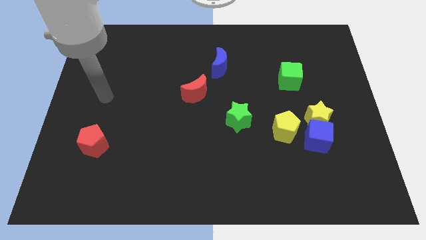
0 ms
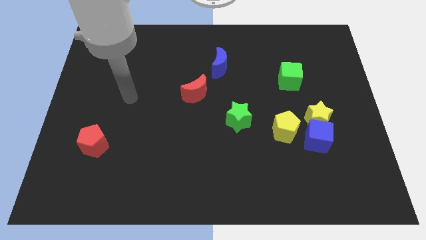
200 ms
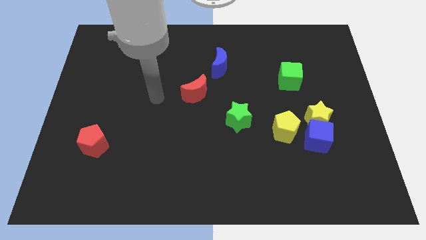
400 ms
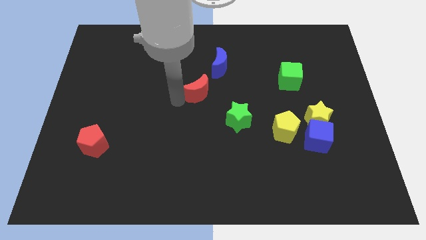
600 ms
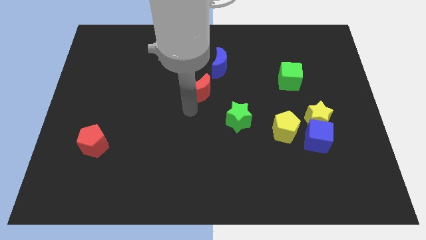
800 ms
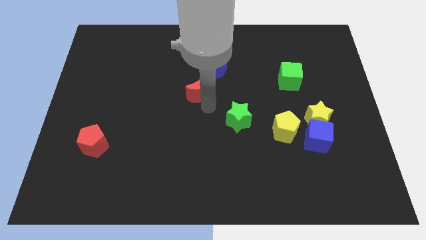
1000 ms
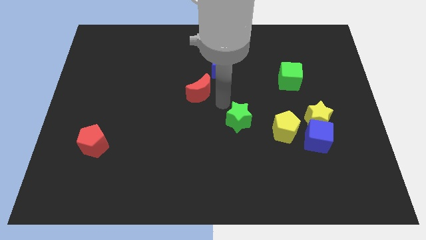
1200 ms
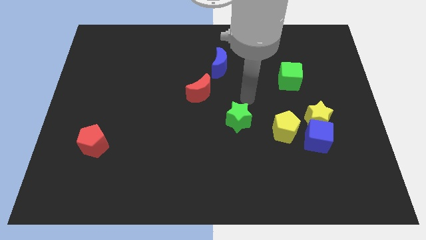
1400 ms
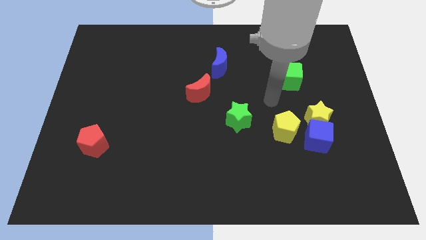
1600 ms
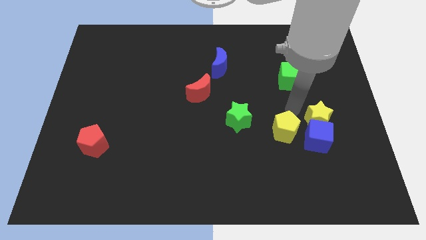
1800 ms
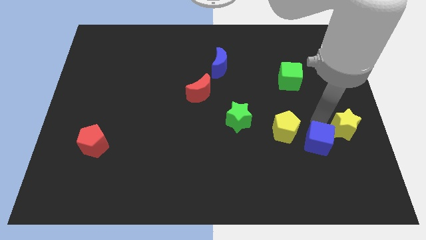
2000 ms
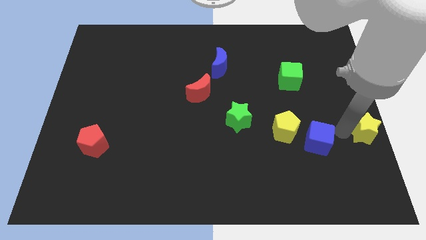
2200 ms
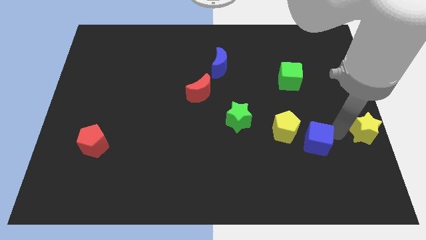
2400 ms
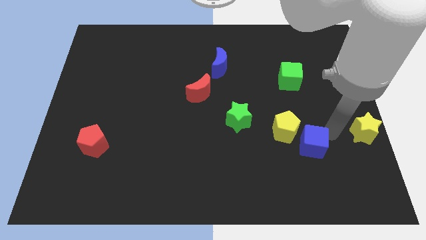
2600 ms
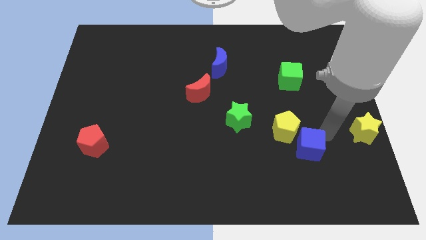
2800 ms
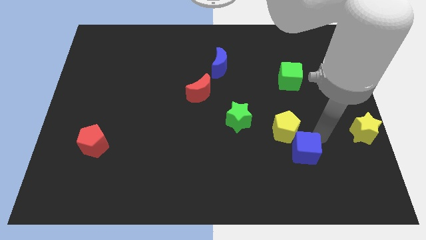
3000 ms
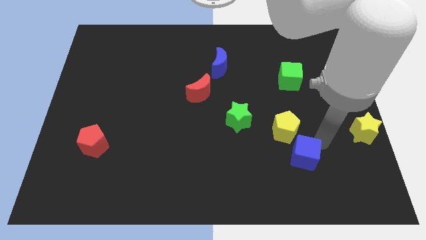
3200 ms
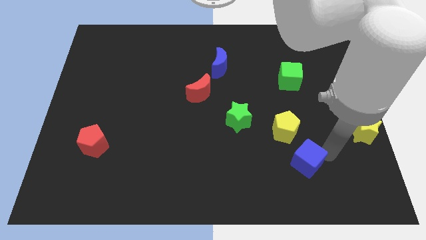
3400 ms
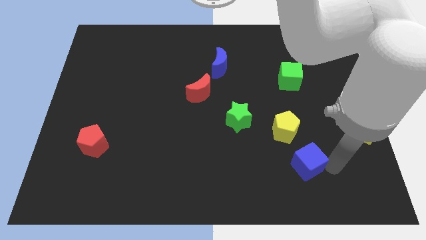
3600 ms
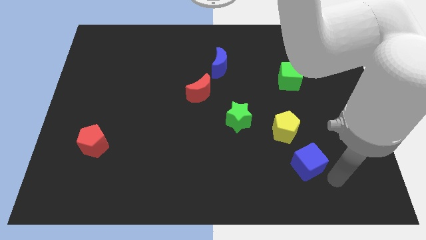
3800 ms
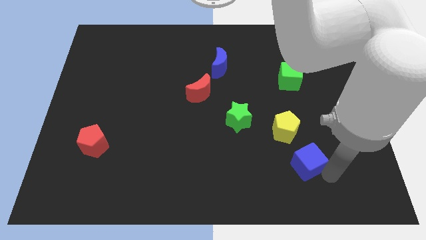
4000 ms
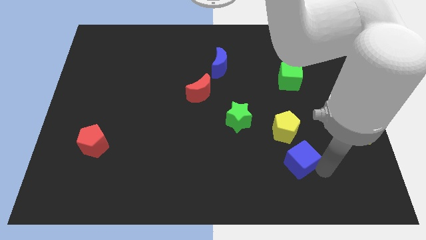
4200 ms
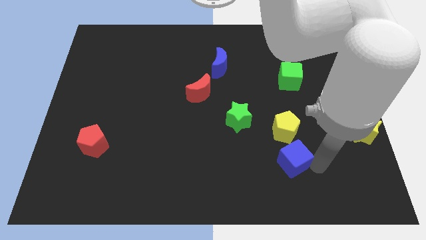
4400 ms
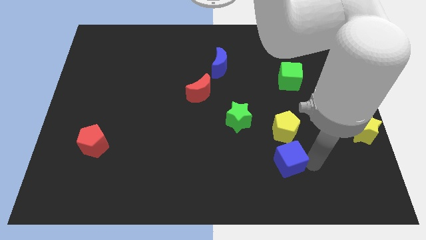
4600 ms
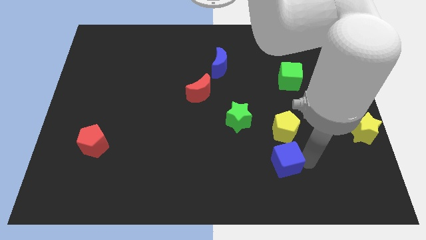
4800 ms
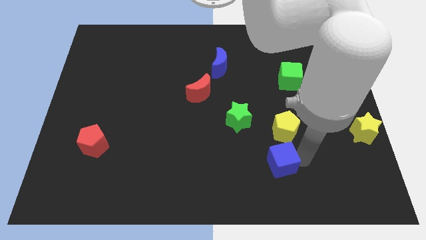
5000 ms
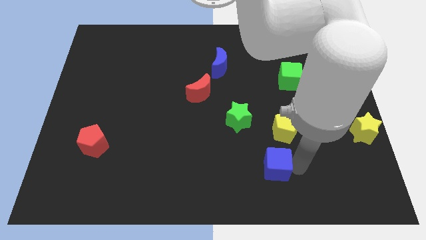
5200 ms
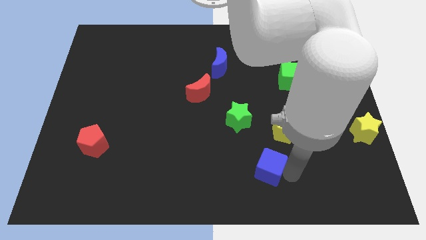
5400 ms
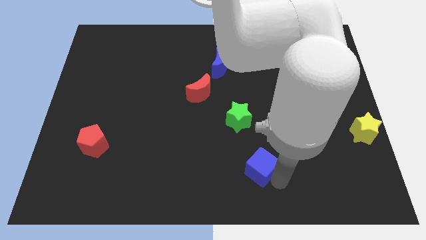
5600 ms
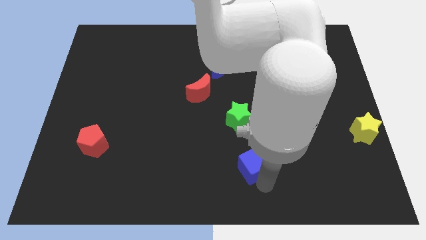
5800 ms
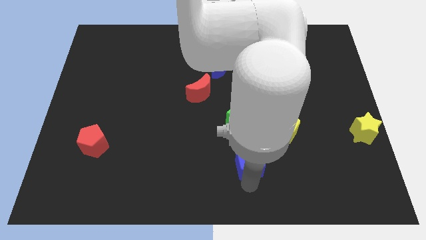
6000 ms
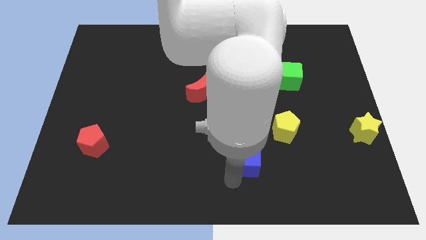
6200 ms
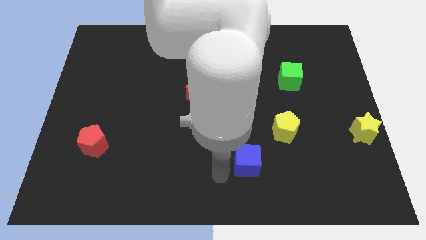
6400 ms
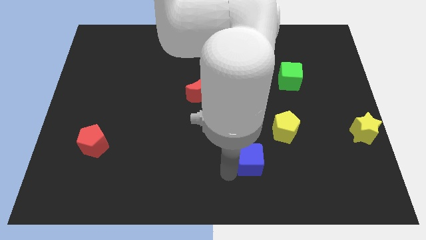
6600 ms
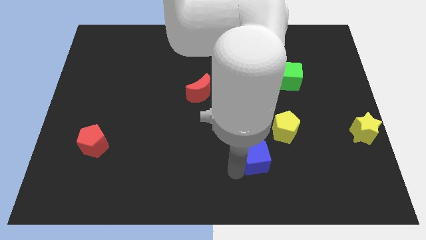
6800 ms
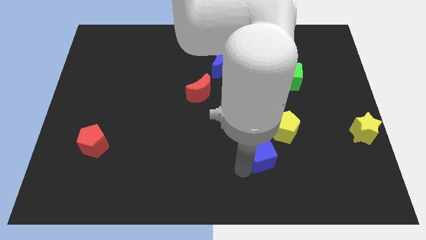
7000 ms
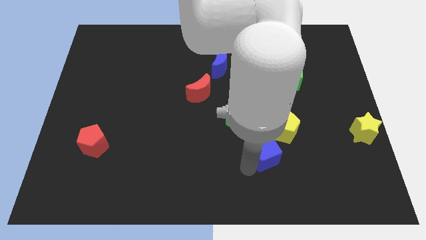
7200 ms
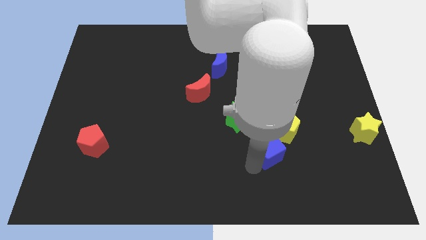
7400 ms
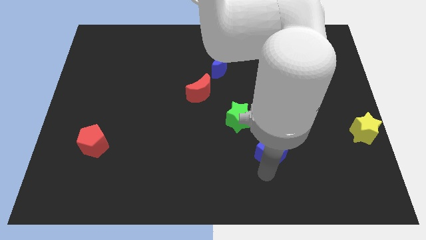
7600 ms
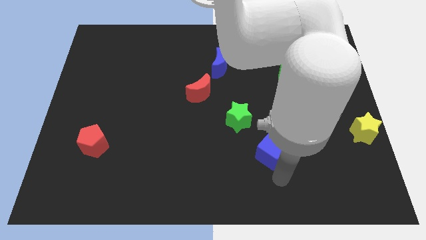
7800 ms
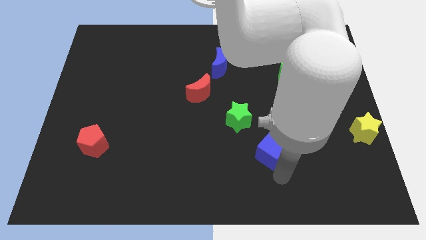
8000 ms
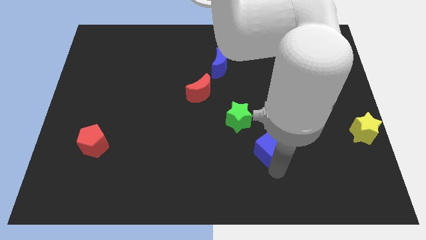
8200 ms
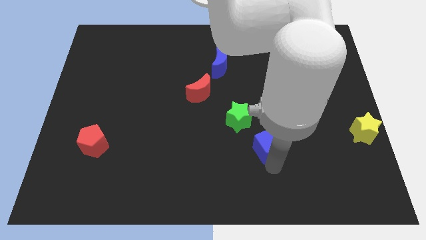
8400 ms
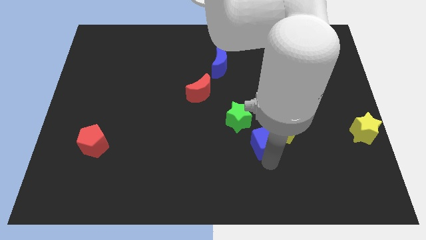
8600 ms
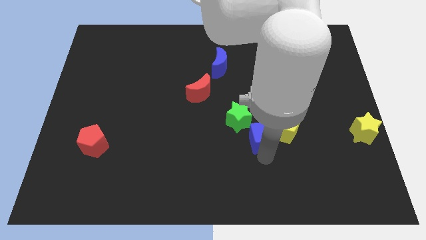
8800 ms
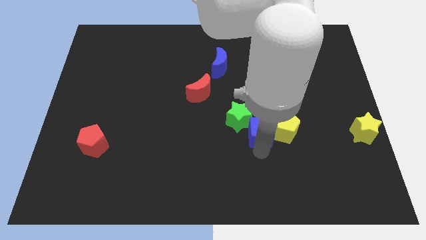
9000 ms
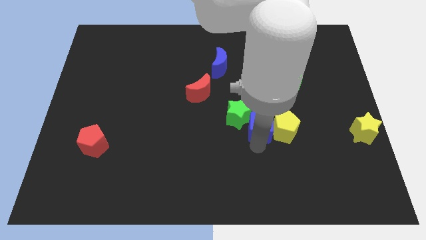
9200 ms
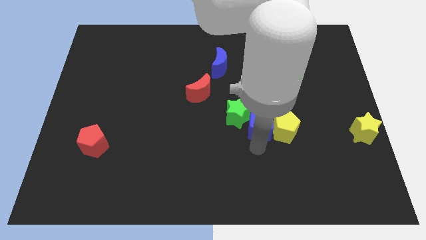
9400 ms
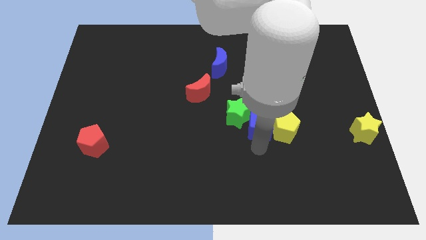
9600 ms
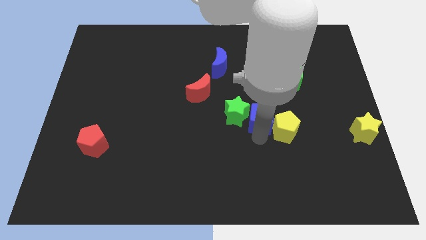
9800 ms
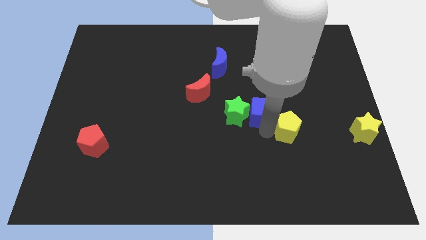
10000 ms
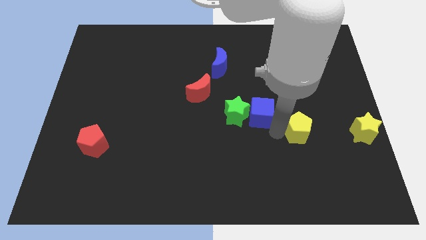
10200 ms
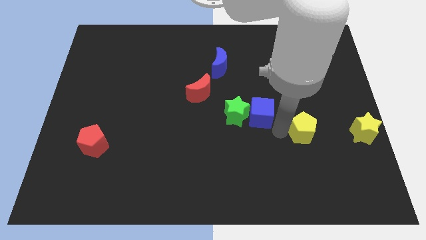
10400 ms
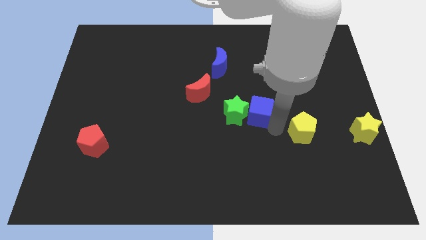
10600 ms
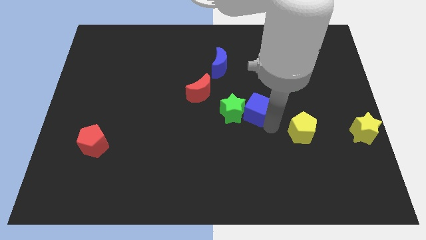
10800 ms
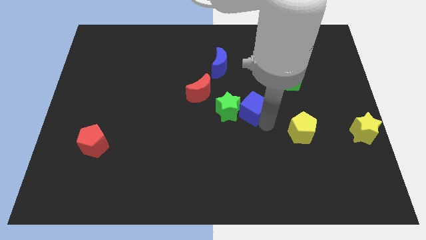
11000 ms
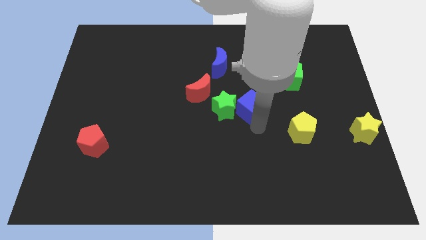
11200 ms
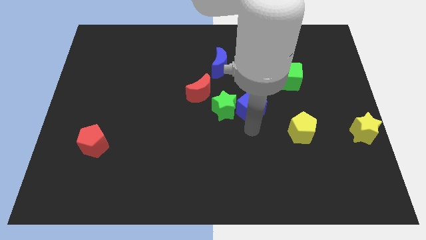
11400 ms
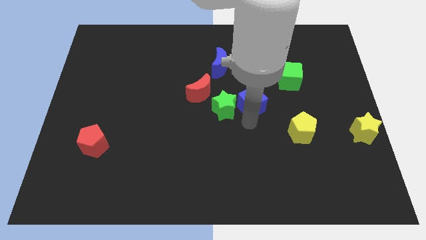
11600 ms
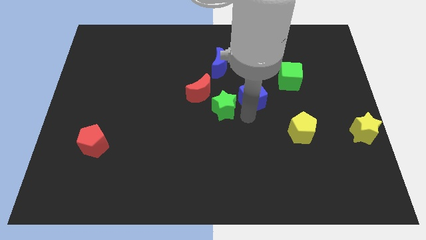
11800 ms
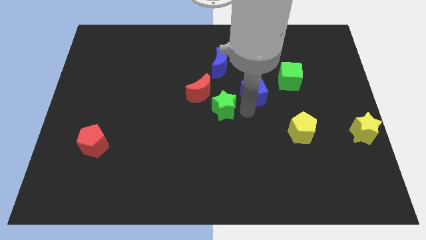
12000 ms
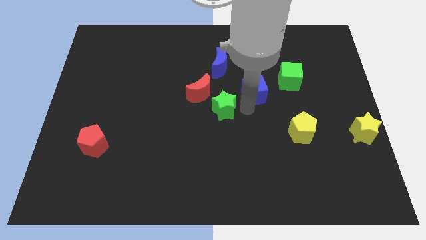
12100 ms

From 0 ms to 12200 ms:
slide the blue cube just left of the green cube

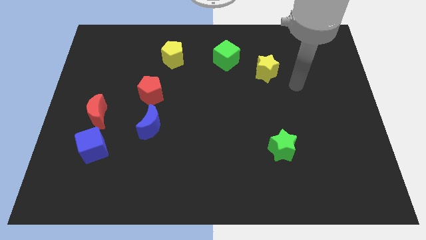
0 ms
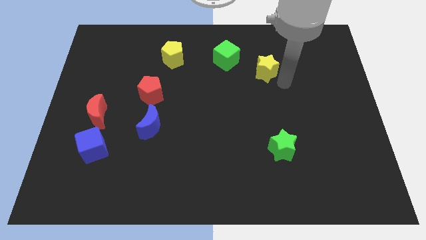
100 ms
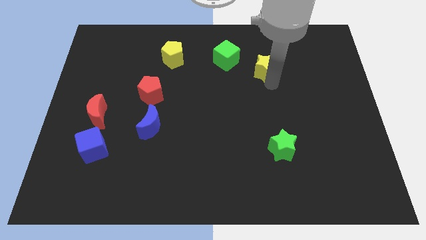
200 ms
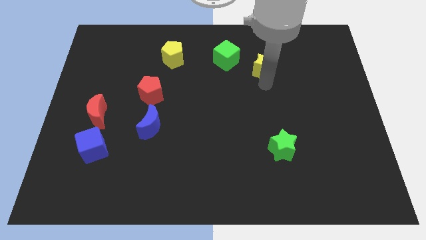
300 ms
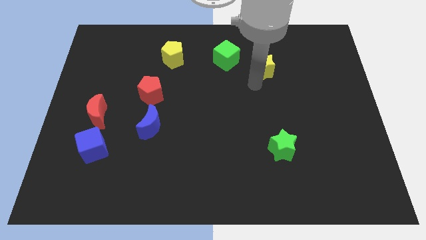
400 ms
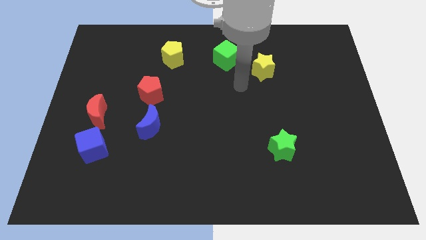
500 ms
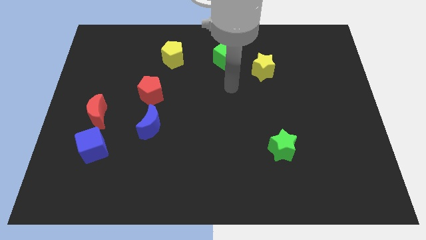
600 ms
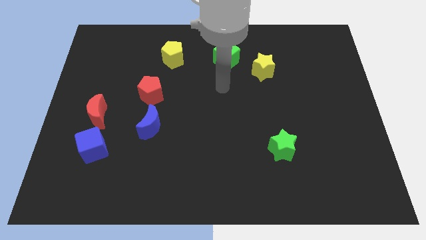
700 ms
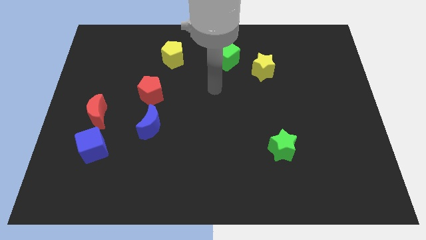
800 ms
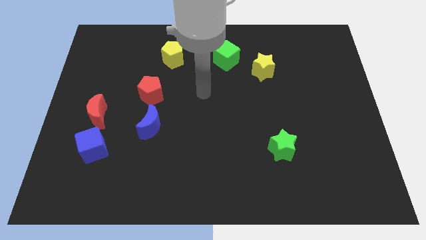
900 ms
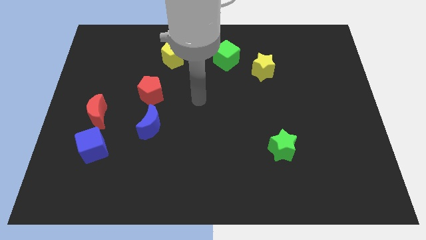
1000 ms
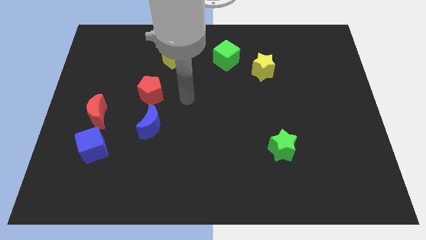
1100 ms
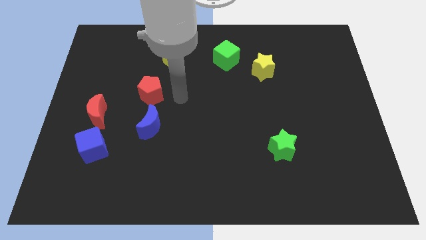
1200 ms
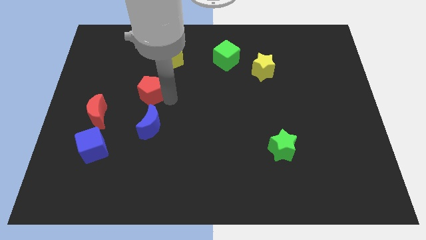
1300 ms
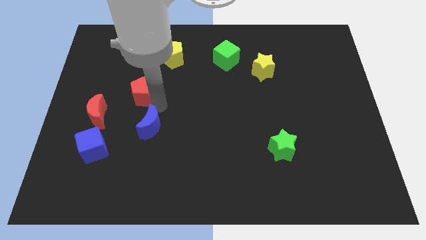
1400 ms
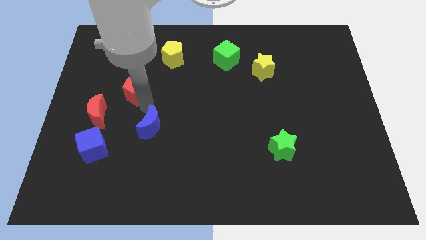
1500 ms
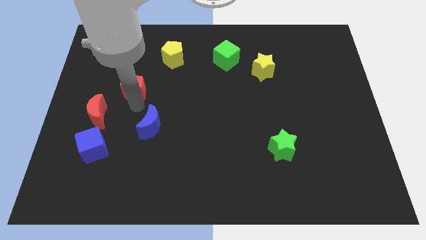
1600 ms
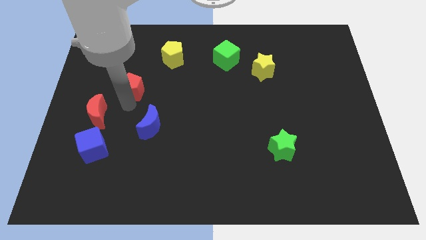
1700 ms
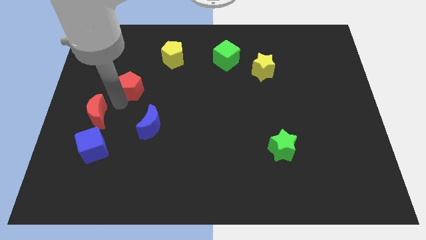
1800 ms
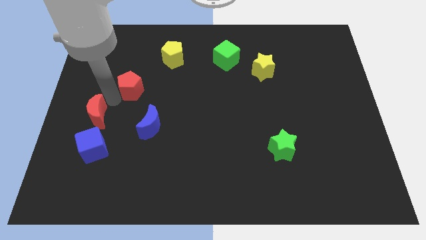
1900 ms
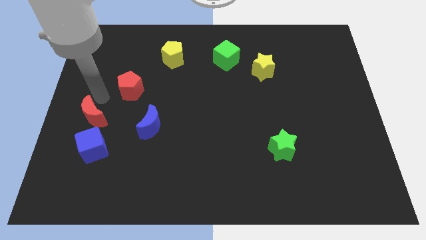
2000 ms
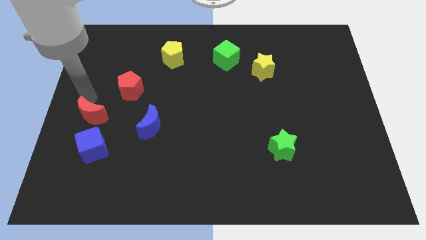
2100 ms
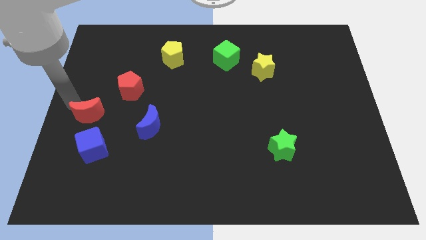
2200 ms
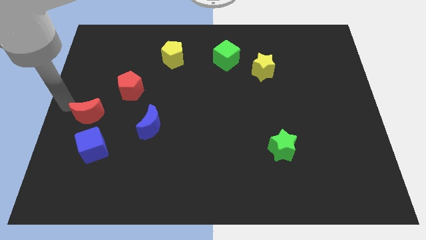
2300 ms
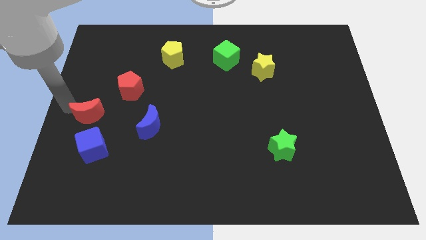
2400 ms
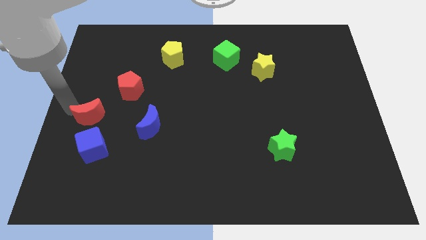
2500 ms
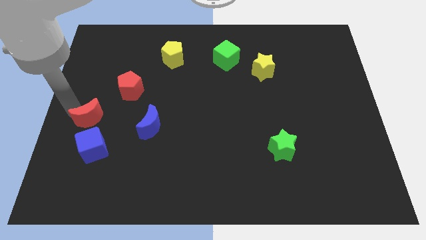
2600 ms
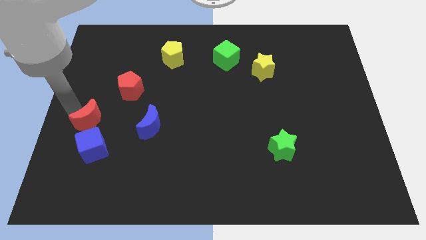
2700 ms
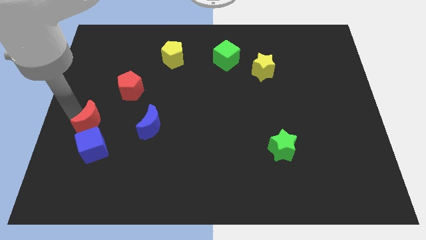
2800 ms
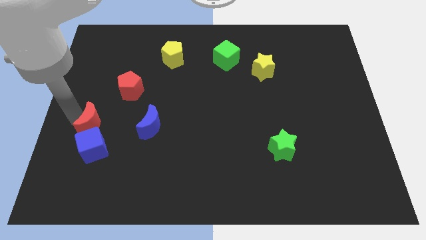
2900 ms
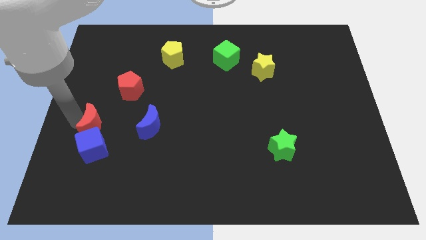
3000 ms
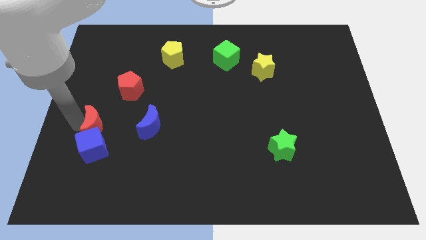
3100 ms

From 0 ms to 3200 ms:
put the red moon to the top right of the blue cube
